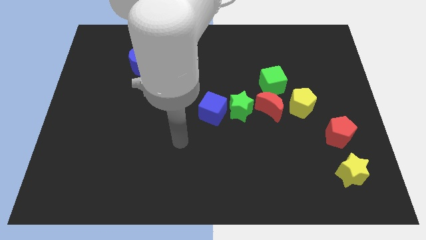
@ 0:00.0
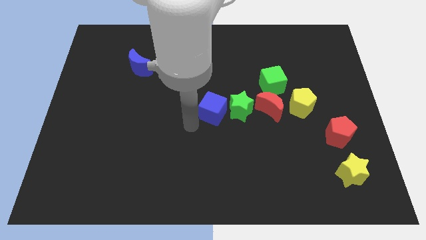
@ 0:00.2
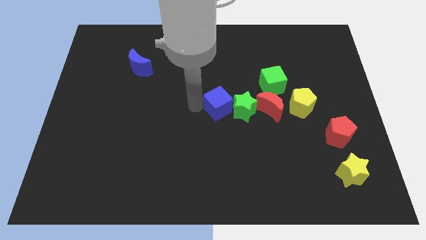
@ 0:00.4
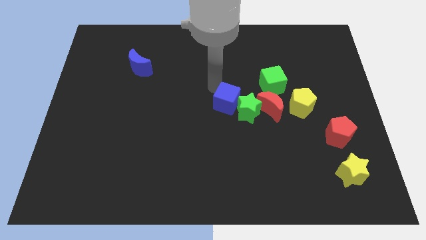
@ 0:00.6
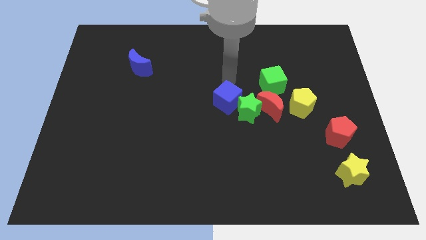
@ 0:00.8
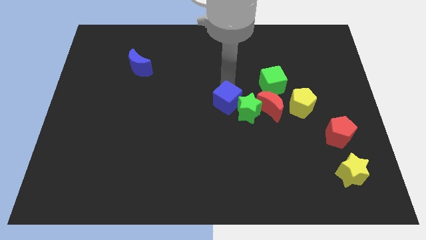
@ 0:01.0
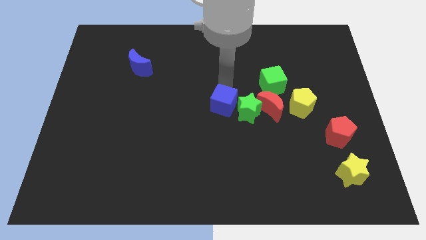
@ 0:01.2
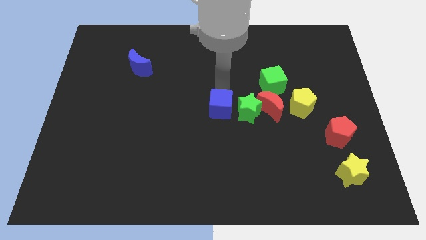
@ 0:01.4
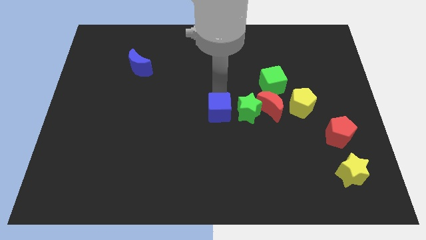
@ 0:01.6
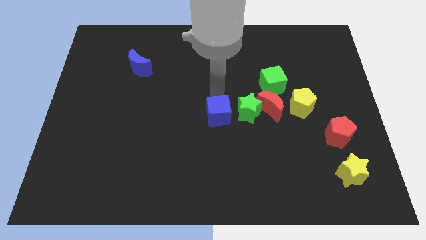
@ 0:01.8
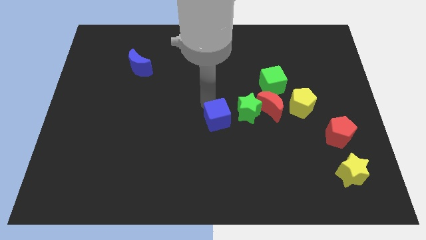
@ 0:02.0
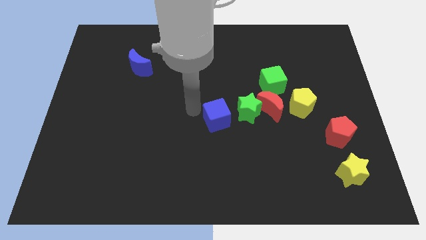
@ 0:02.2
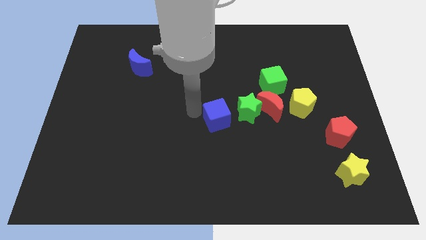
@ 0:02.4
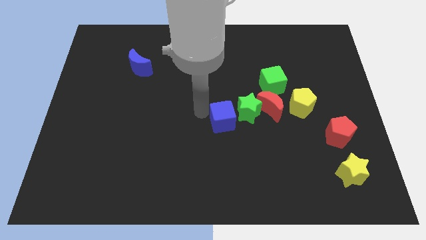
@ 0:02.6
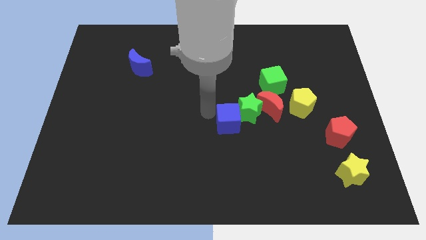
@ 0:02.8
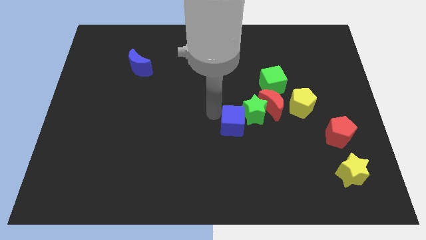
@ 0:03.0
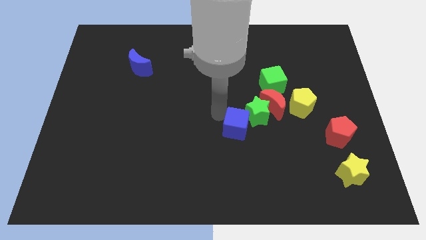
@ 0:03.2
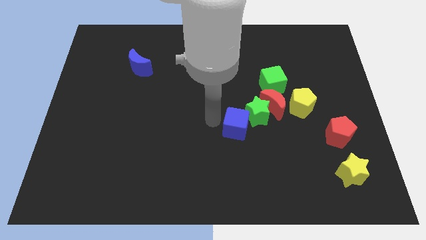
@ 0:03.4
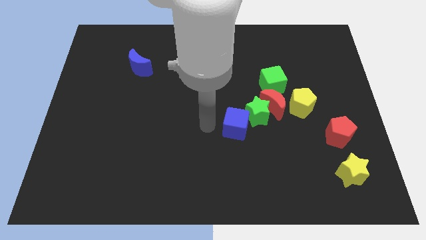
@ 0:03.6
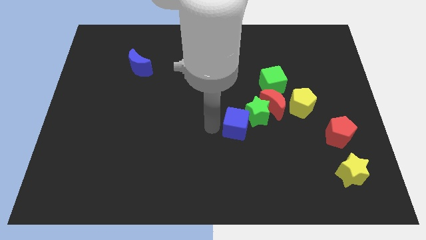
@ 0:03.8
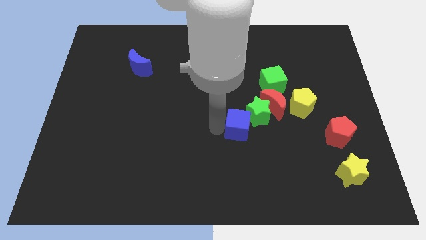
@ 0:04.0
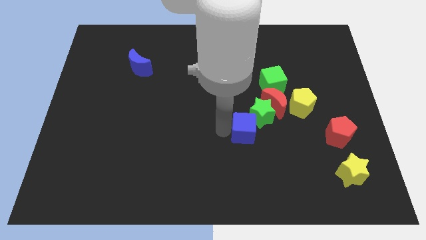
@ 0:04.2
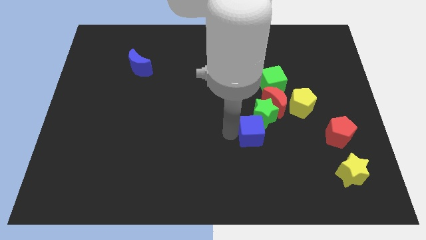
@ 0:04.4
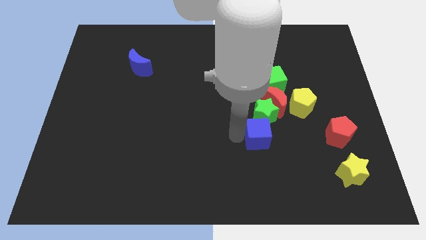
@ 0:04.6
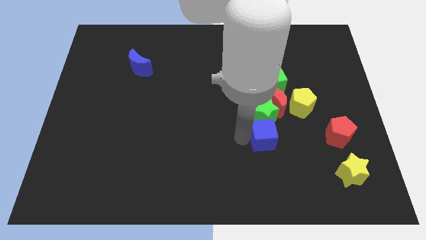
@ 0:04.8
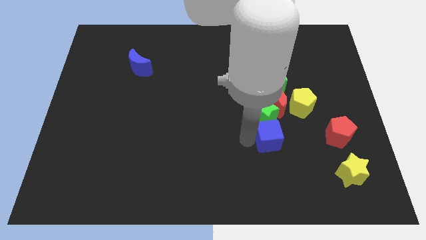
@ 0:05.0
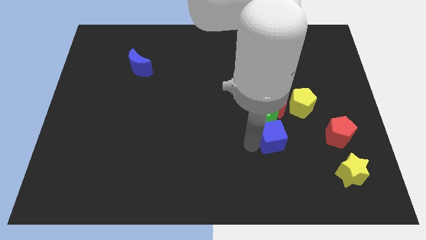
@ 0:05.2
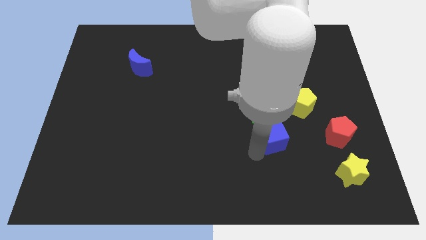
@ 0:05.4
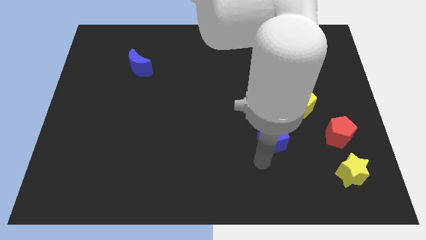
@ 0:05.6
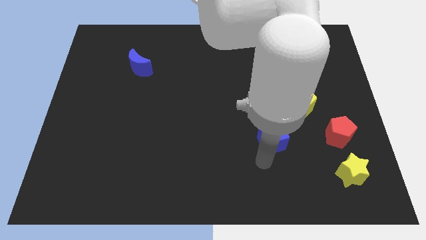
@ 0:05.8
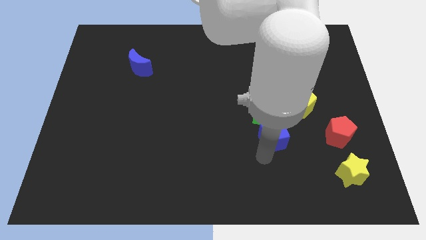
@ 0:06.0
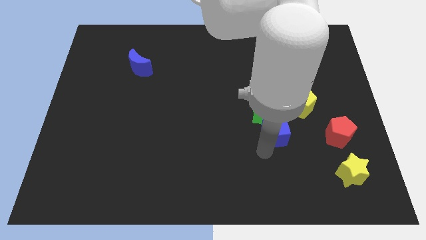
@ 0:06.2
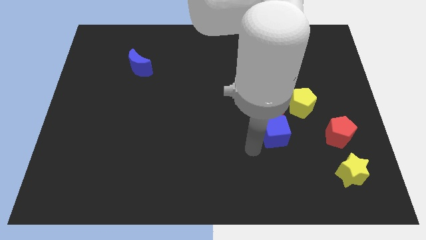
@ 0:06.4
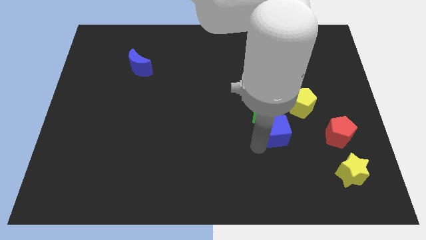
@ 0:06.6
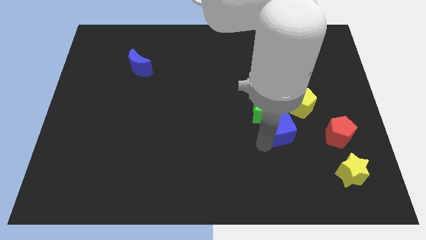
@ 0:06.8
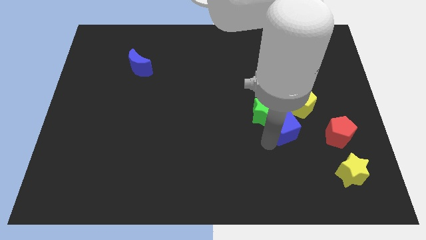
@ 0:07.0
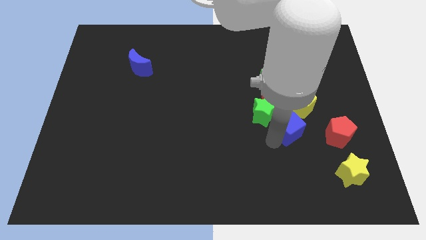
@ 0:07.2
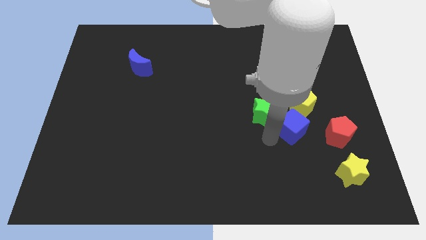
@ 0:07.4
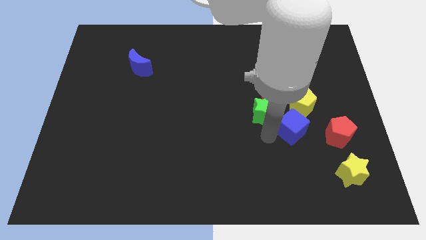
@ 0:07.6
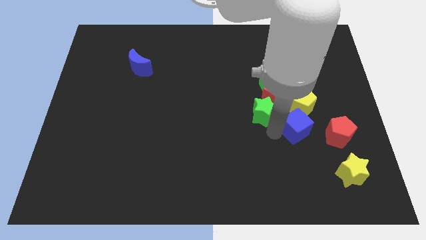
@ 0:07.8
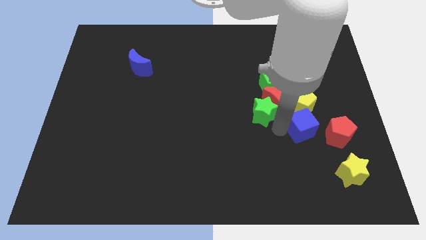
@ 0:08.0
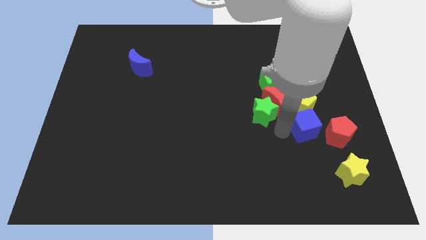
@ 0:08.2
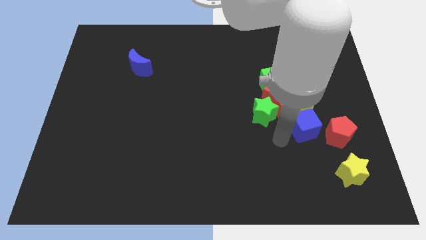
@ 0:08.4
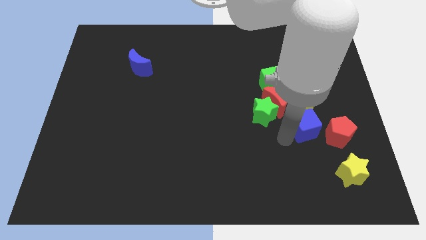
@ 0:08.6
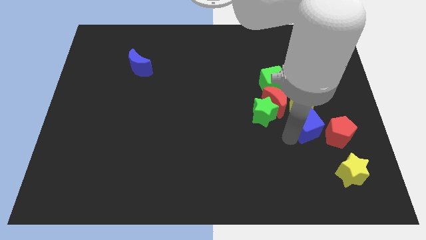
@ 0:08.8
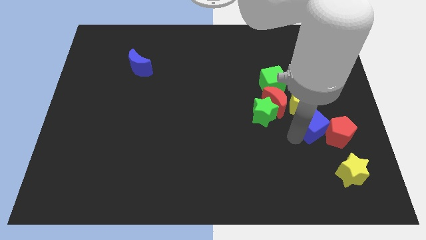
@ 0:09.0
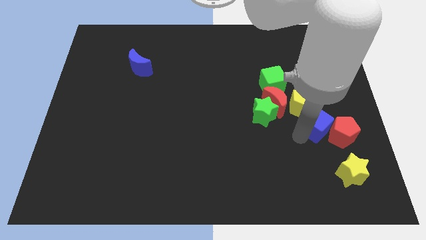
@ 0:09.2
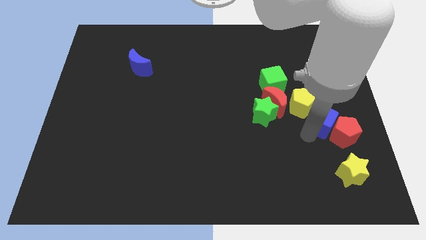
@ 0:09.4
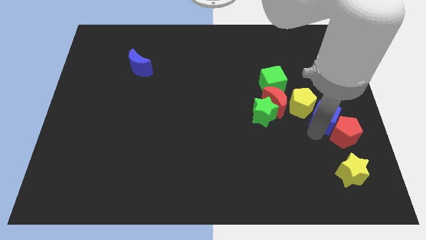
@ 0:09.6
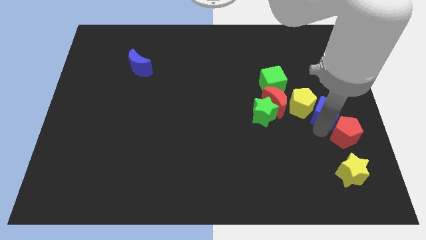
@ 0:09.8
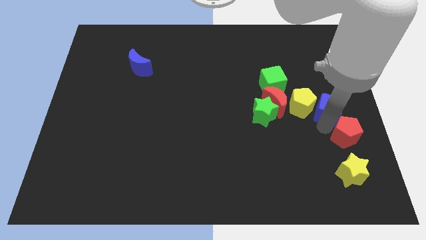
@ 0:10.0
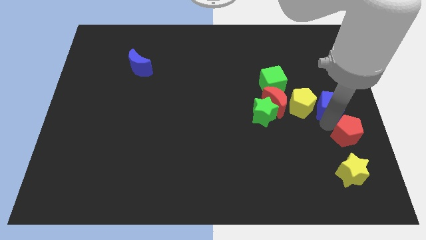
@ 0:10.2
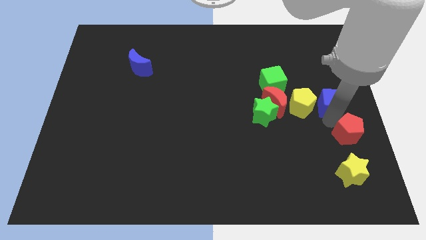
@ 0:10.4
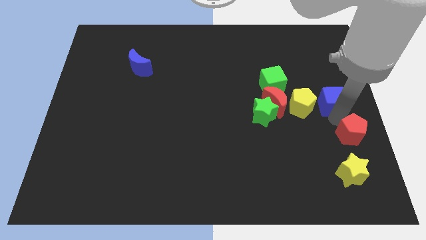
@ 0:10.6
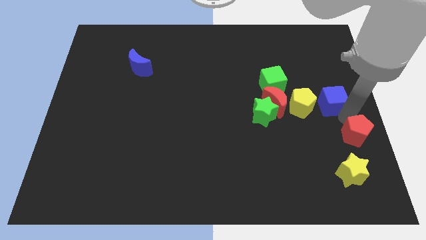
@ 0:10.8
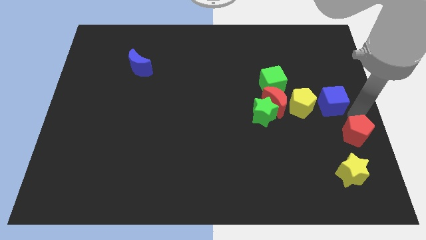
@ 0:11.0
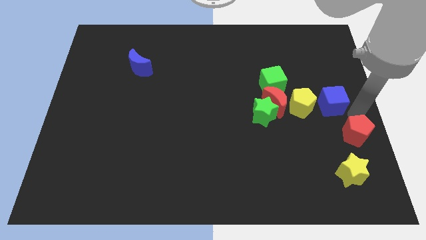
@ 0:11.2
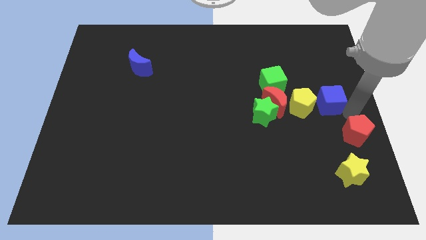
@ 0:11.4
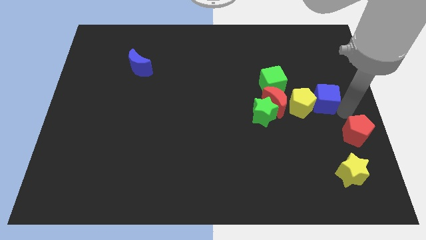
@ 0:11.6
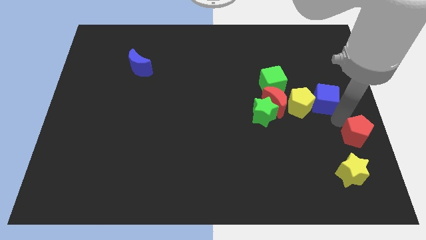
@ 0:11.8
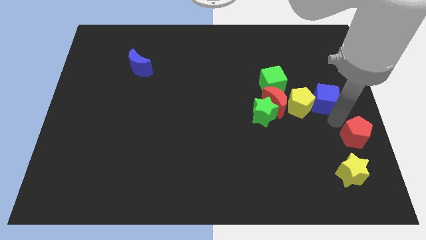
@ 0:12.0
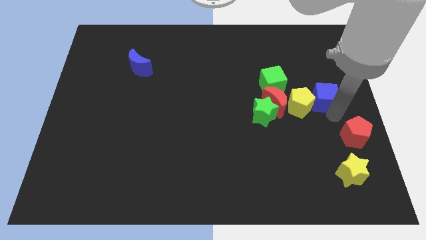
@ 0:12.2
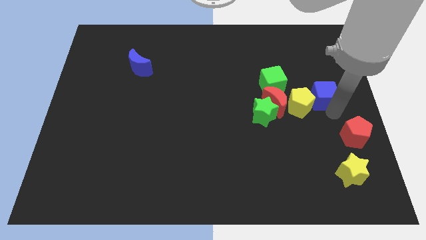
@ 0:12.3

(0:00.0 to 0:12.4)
push the blue cube to the right of the green cube

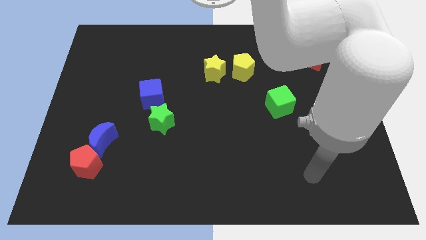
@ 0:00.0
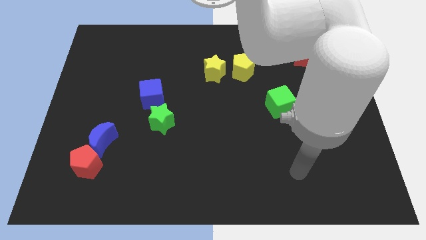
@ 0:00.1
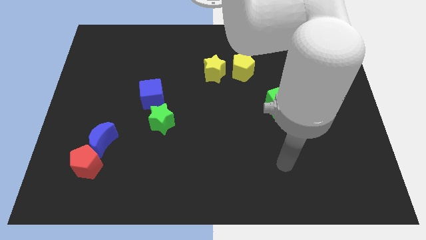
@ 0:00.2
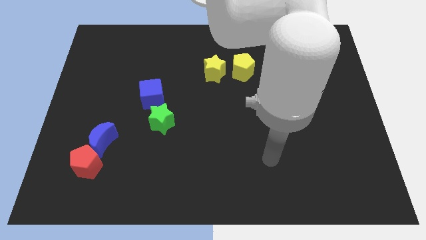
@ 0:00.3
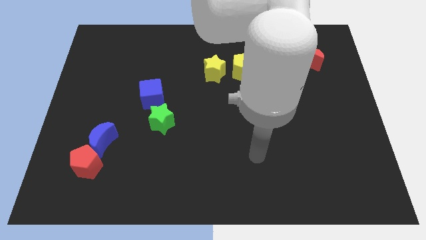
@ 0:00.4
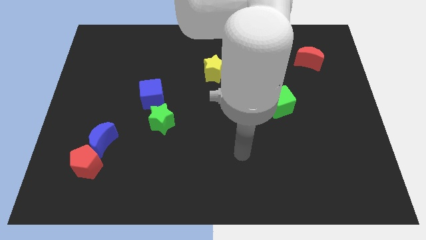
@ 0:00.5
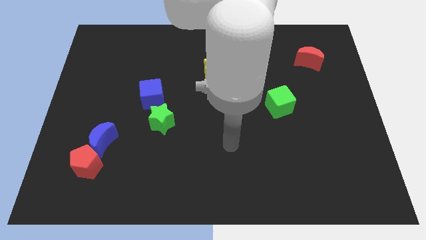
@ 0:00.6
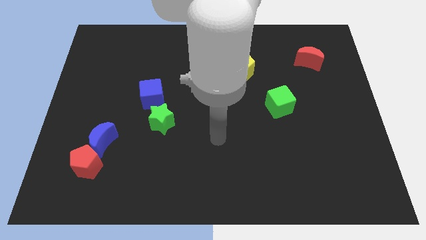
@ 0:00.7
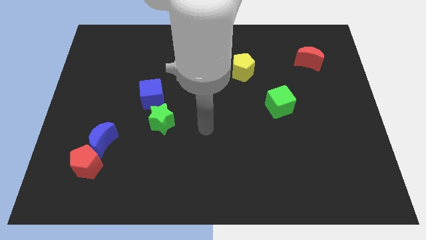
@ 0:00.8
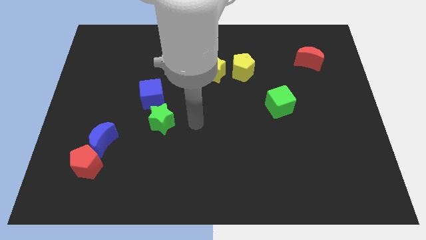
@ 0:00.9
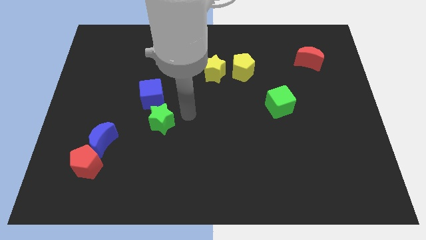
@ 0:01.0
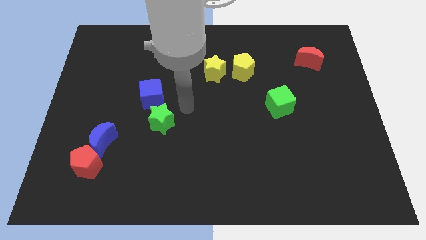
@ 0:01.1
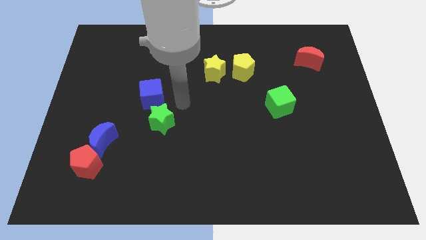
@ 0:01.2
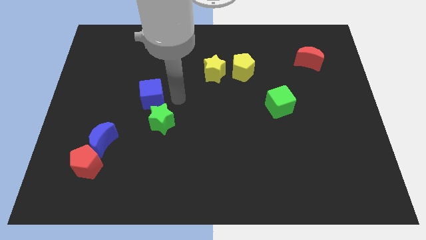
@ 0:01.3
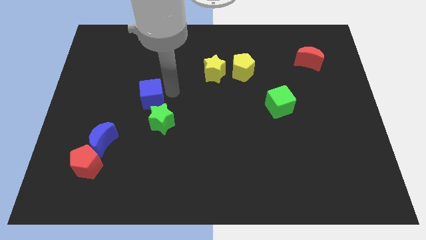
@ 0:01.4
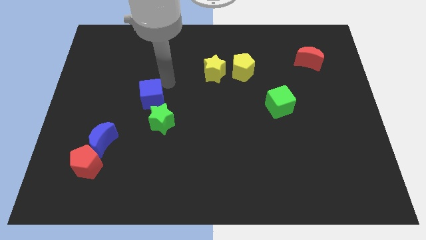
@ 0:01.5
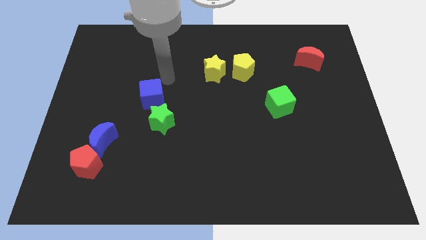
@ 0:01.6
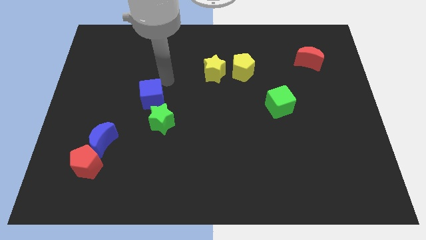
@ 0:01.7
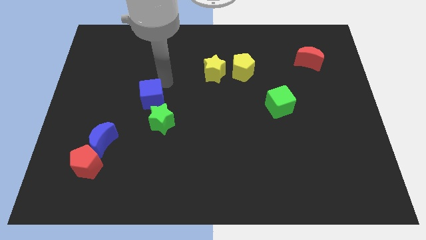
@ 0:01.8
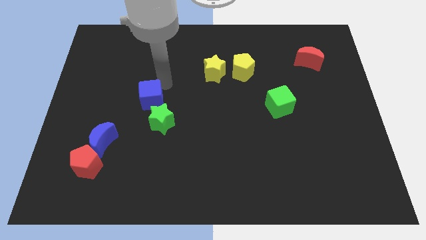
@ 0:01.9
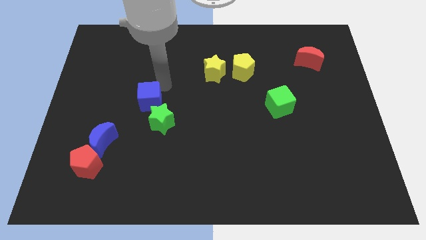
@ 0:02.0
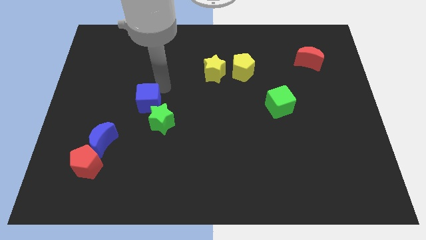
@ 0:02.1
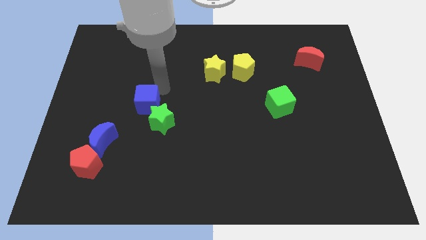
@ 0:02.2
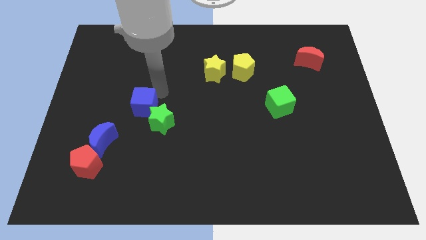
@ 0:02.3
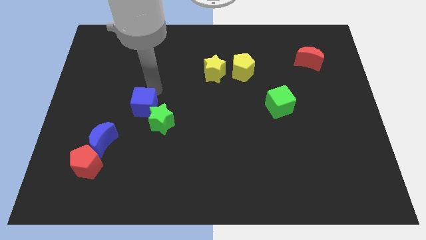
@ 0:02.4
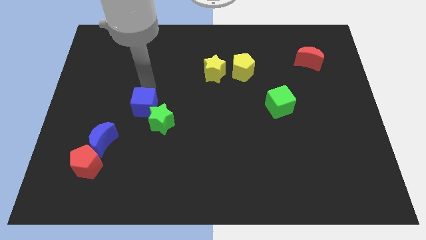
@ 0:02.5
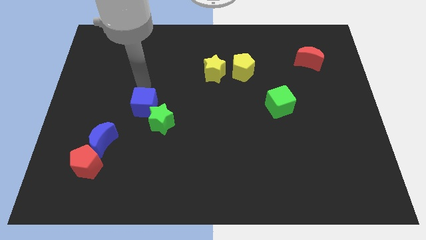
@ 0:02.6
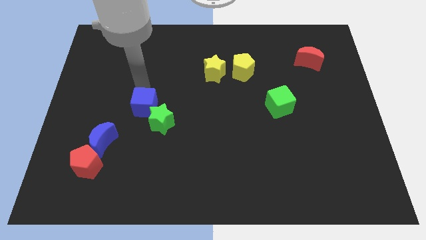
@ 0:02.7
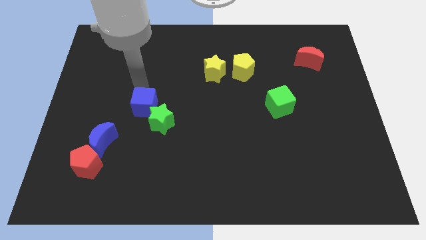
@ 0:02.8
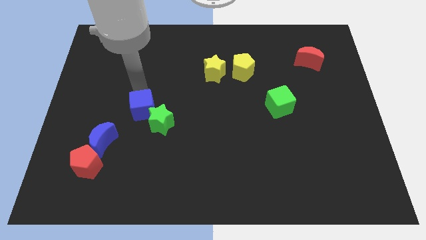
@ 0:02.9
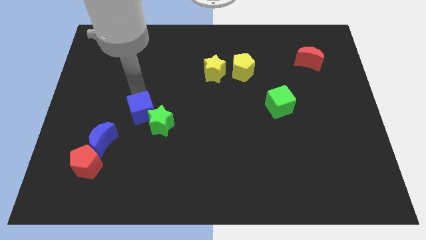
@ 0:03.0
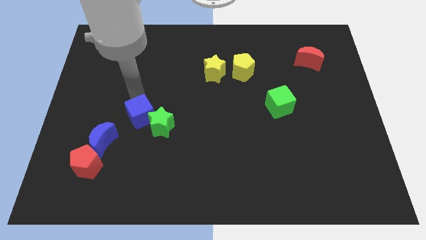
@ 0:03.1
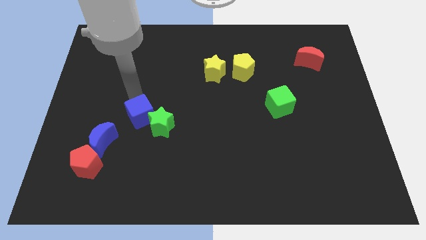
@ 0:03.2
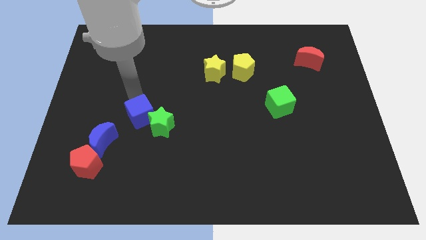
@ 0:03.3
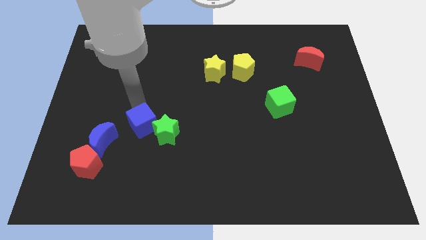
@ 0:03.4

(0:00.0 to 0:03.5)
put the blue cube right of the blue moon
